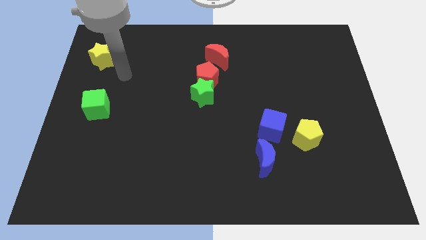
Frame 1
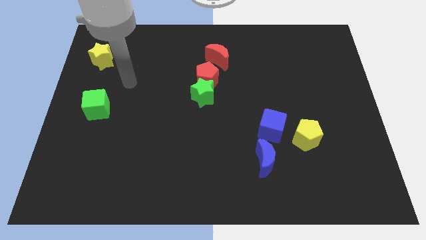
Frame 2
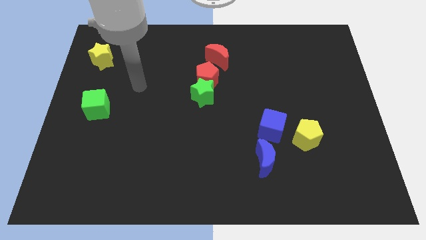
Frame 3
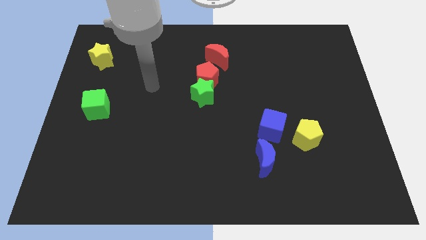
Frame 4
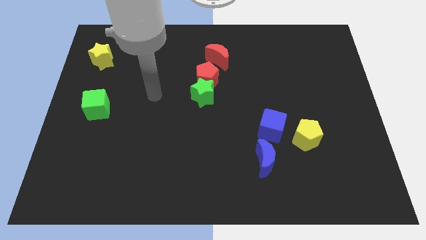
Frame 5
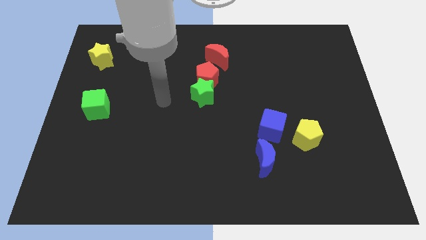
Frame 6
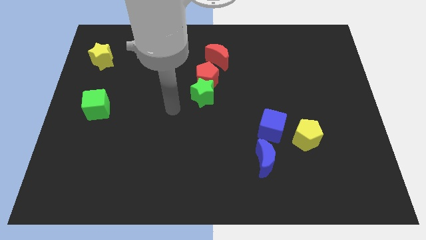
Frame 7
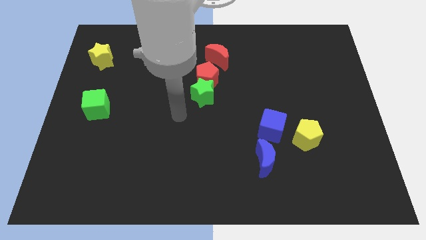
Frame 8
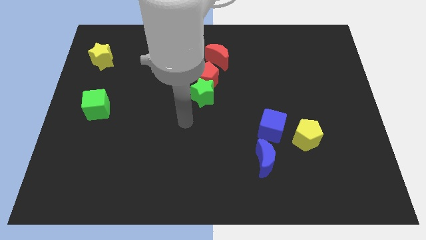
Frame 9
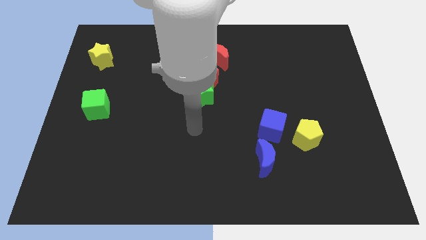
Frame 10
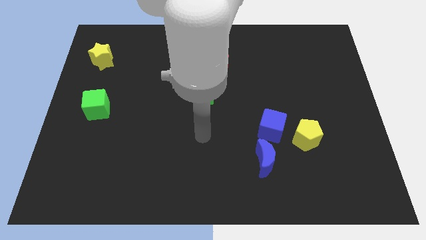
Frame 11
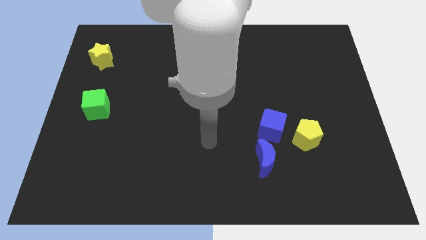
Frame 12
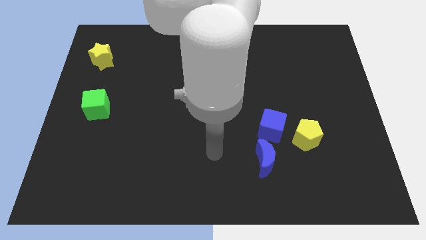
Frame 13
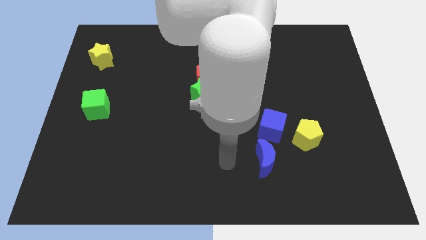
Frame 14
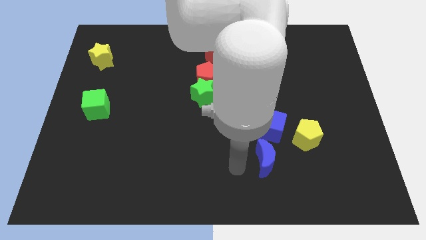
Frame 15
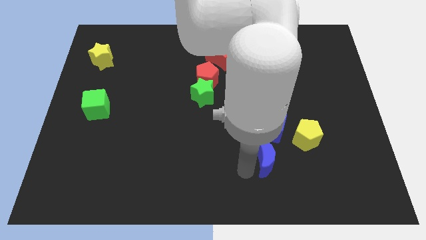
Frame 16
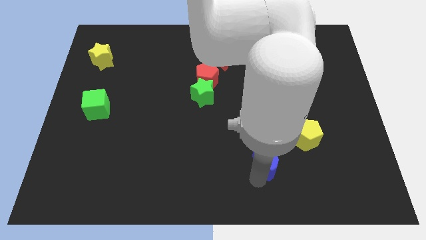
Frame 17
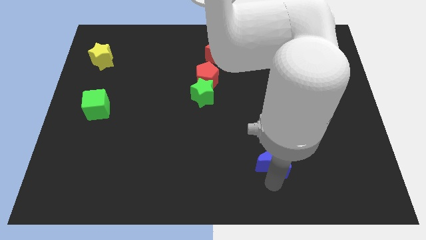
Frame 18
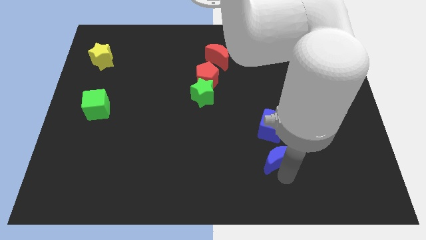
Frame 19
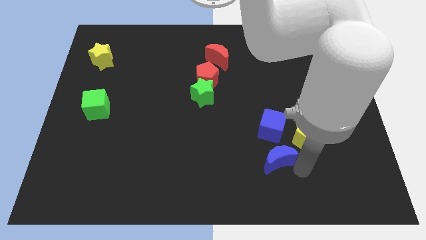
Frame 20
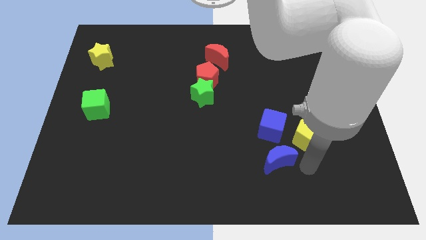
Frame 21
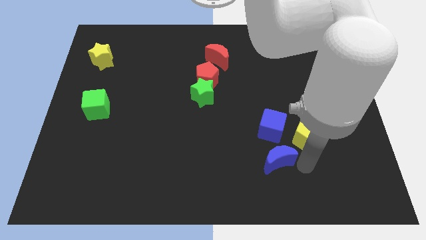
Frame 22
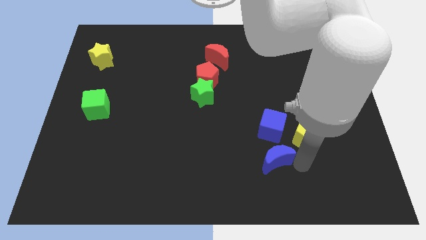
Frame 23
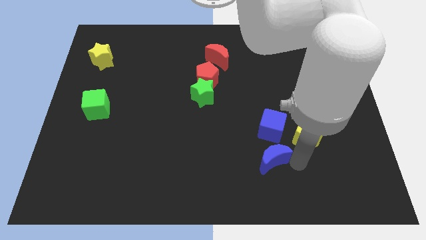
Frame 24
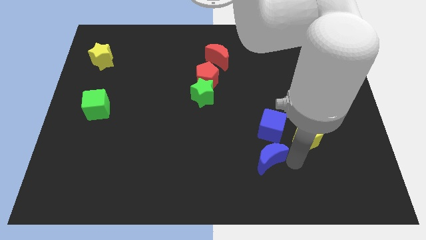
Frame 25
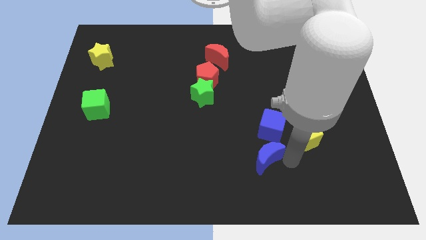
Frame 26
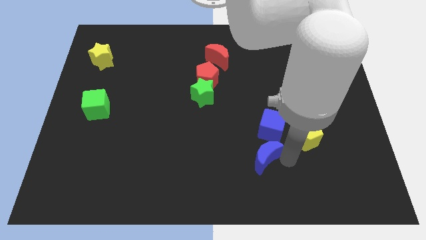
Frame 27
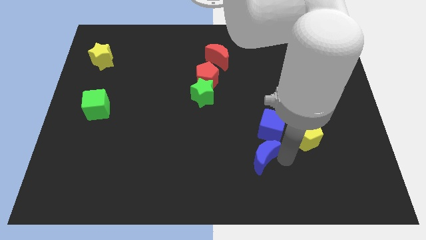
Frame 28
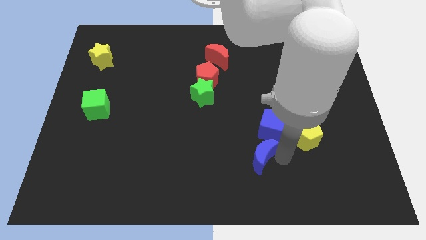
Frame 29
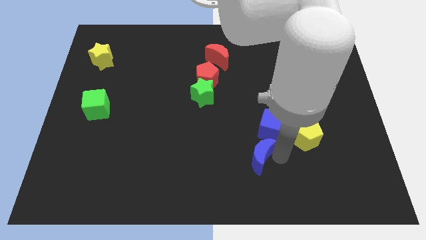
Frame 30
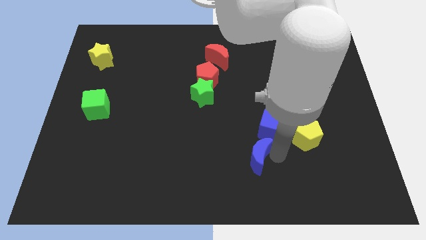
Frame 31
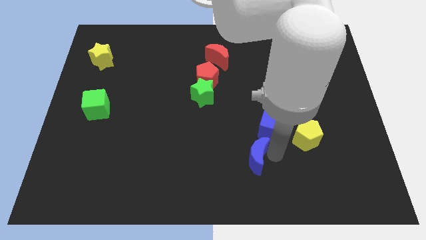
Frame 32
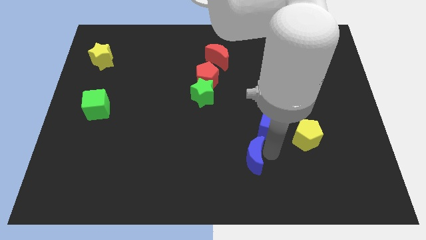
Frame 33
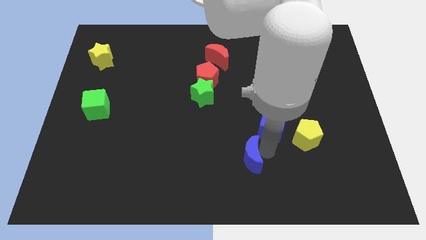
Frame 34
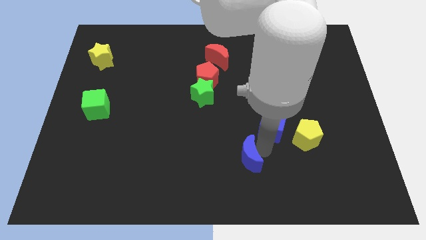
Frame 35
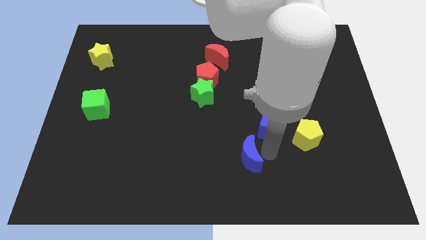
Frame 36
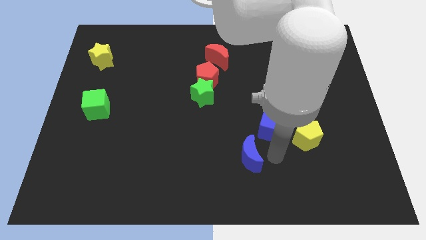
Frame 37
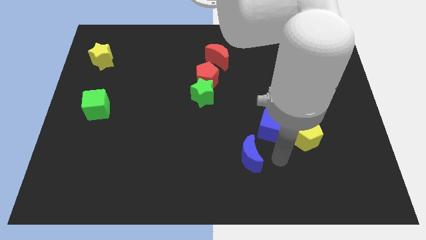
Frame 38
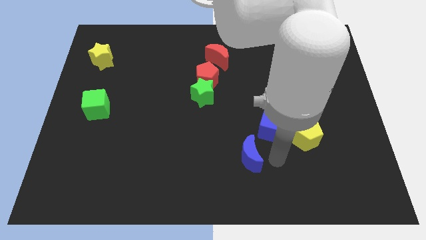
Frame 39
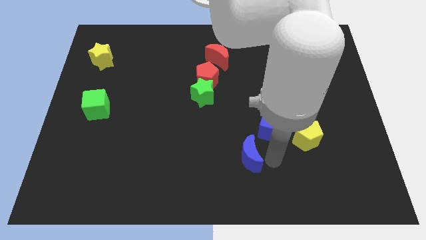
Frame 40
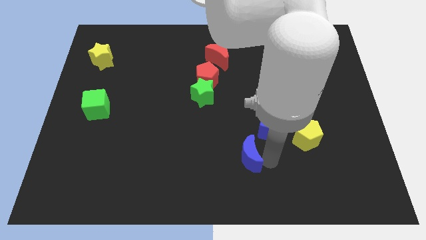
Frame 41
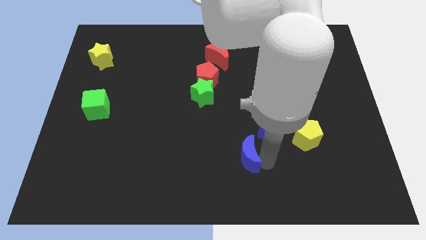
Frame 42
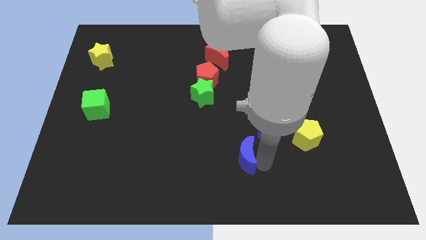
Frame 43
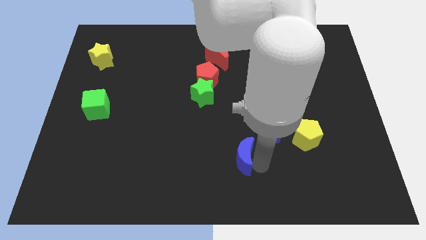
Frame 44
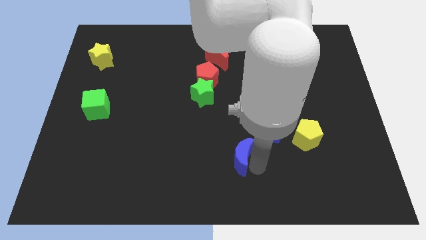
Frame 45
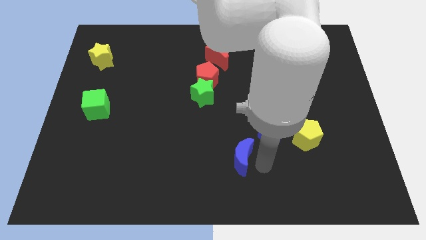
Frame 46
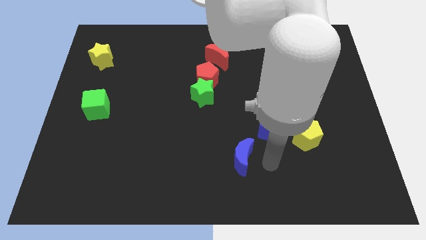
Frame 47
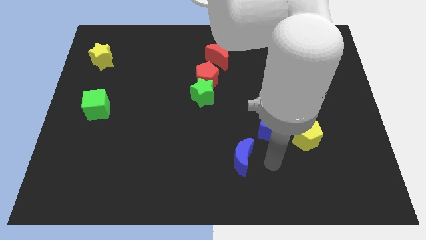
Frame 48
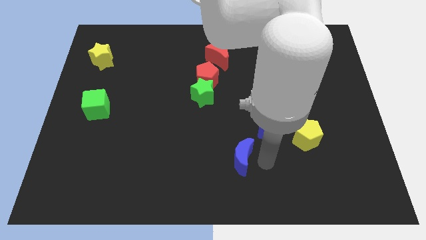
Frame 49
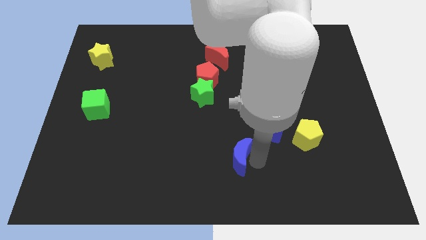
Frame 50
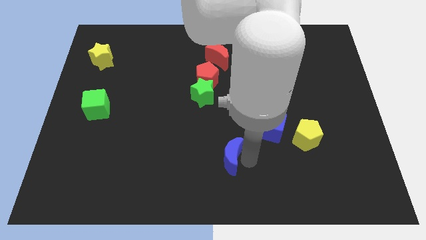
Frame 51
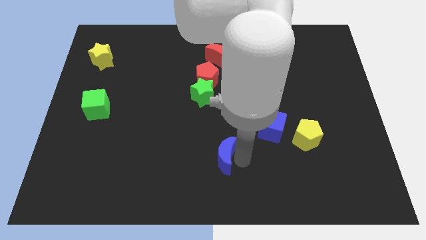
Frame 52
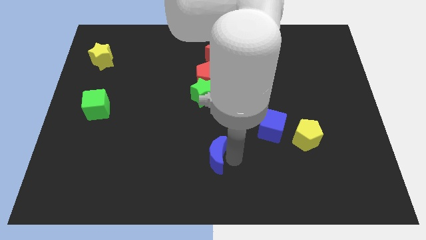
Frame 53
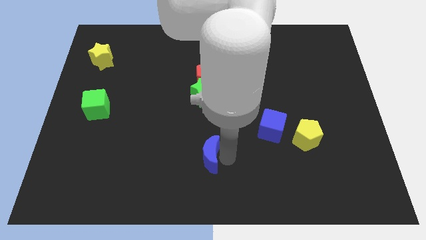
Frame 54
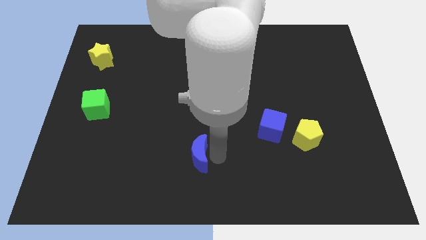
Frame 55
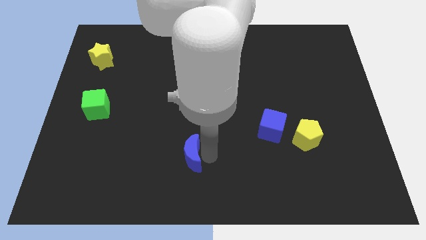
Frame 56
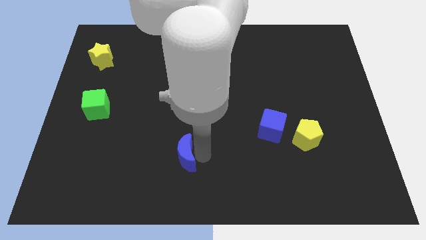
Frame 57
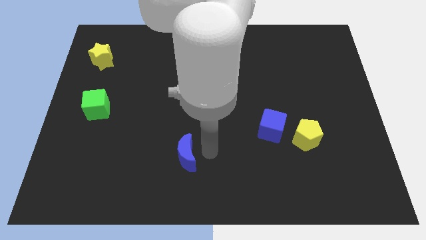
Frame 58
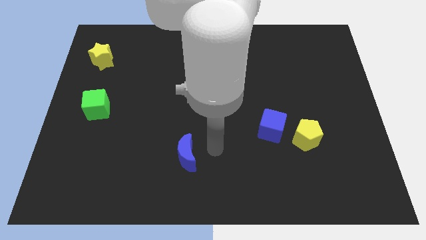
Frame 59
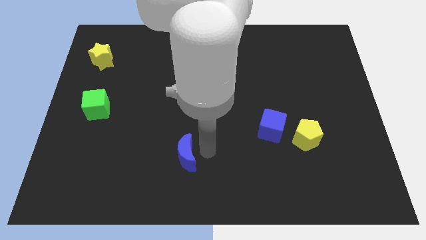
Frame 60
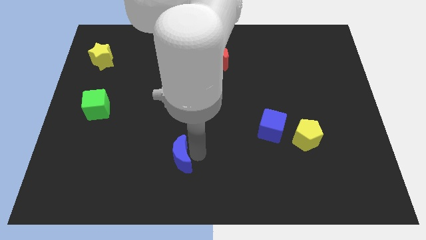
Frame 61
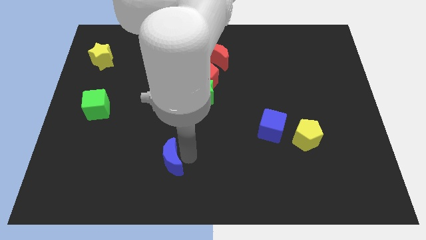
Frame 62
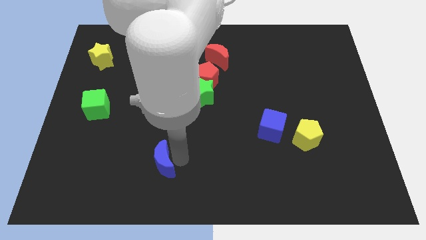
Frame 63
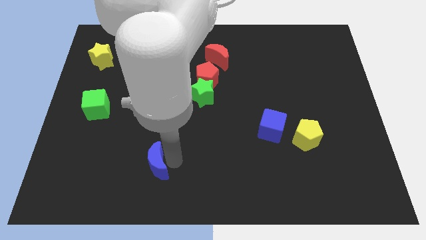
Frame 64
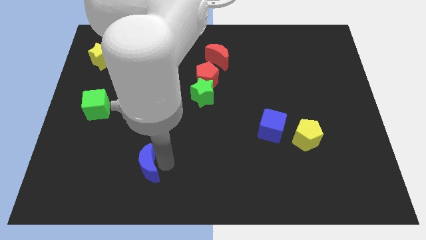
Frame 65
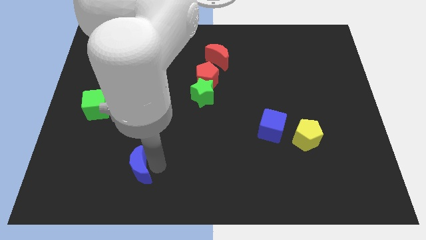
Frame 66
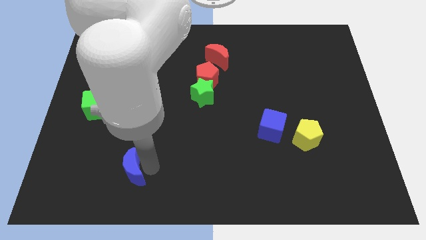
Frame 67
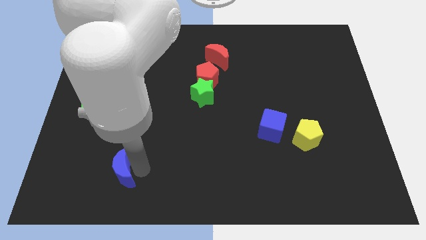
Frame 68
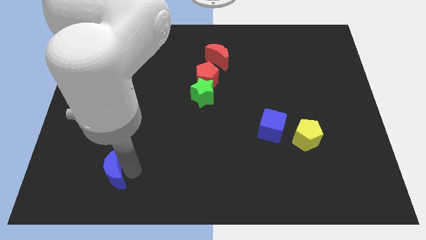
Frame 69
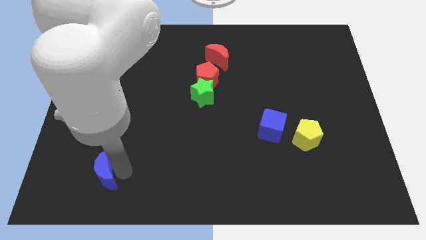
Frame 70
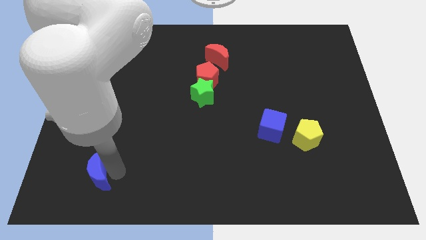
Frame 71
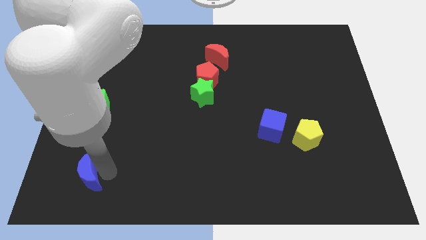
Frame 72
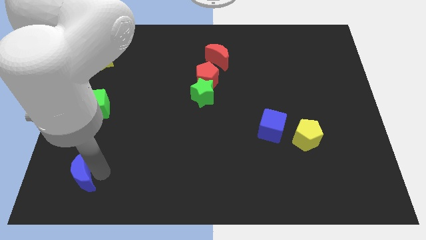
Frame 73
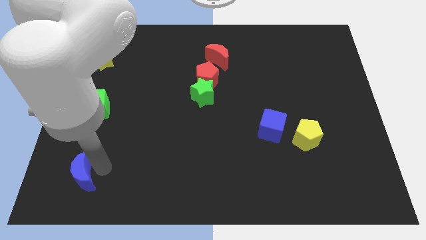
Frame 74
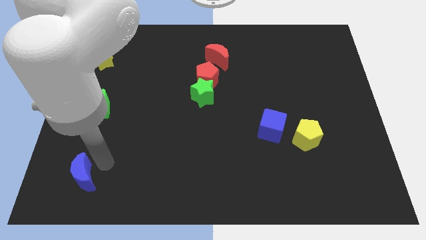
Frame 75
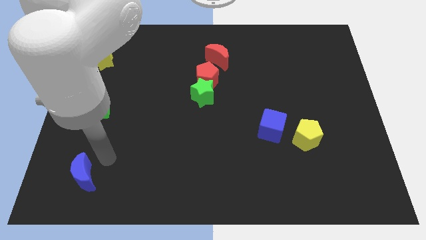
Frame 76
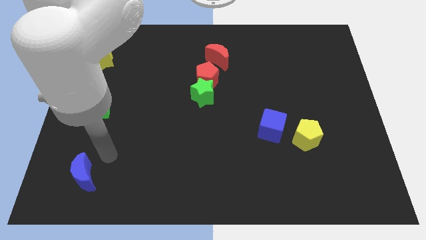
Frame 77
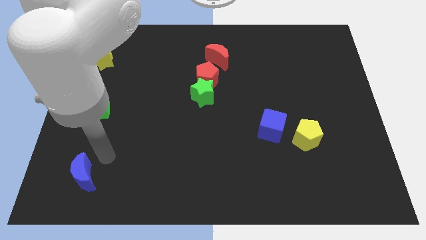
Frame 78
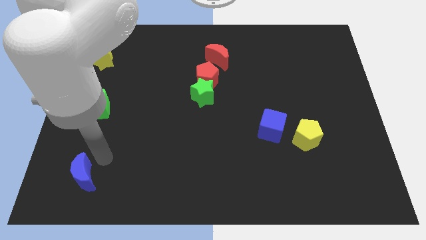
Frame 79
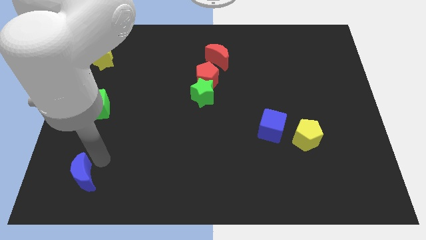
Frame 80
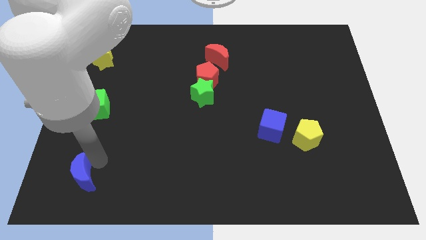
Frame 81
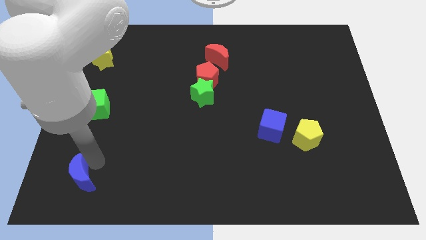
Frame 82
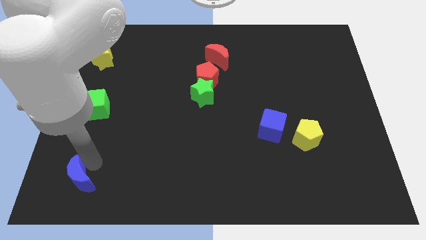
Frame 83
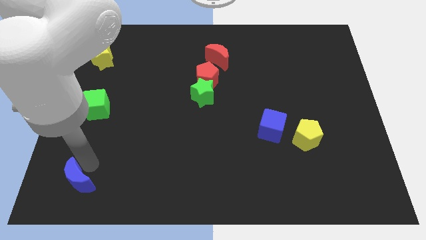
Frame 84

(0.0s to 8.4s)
push the blue moon to the lower left corner
